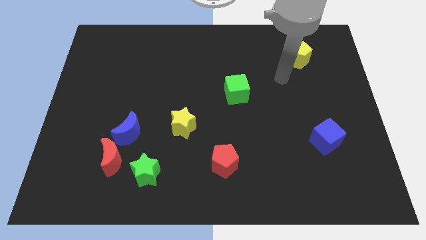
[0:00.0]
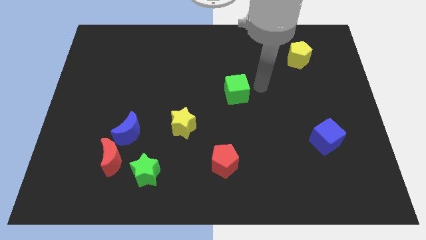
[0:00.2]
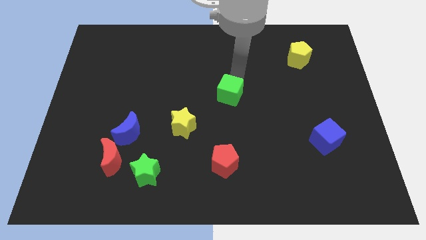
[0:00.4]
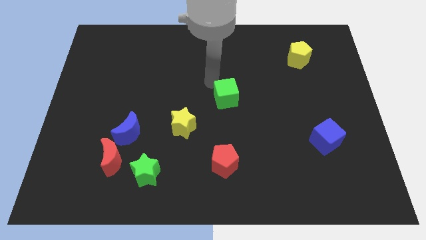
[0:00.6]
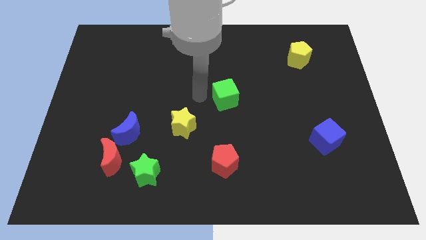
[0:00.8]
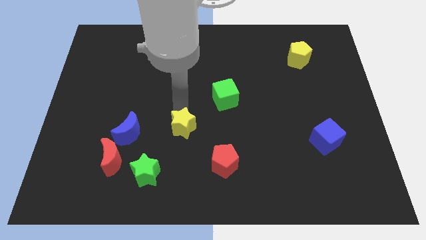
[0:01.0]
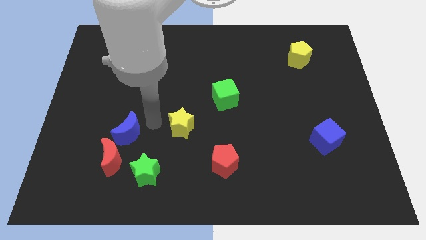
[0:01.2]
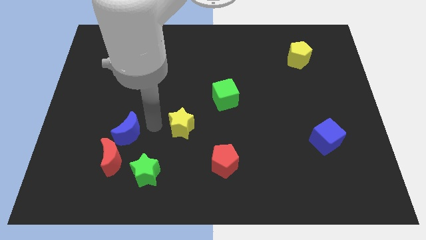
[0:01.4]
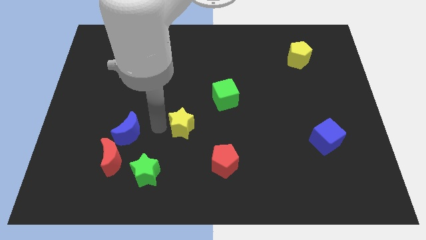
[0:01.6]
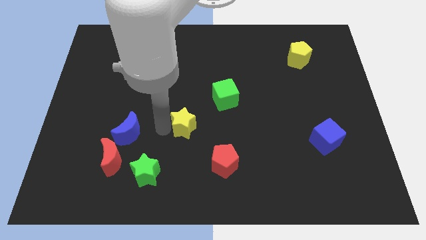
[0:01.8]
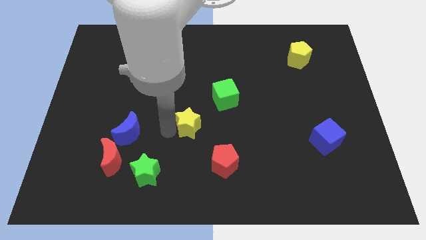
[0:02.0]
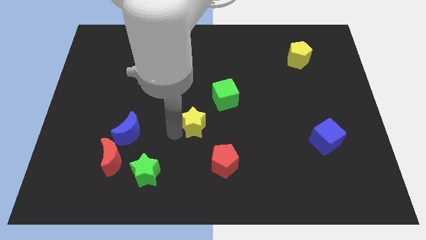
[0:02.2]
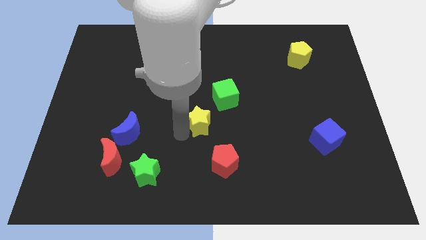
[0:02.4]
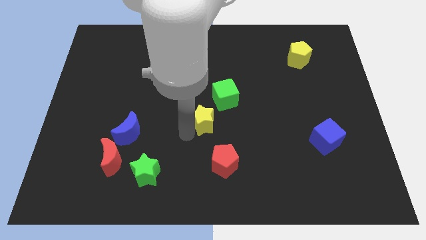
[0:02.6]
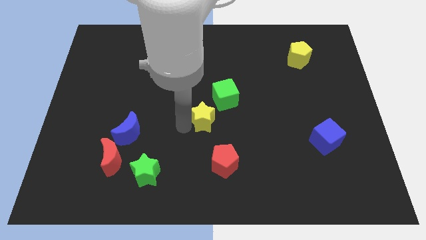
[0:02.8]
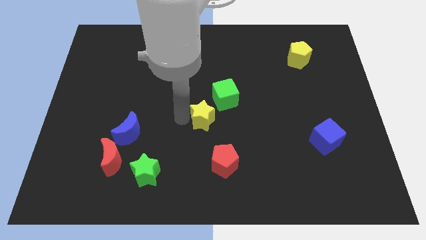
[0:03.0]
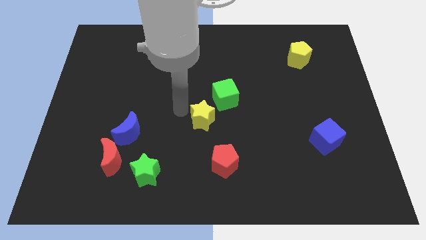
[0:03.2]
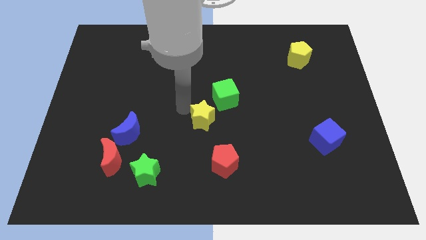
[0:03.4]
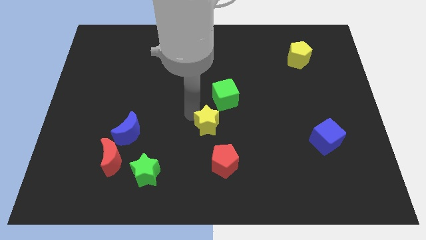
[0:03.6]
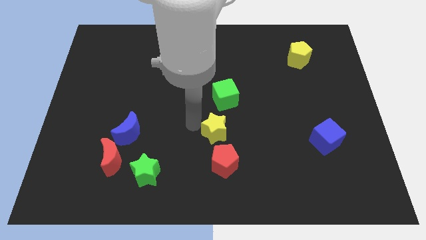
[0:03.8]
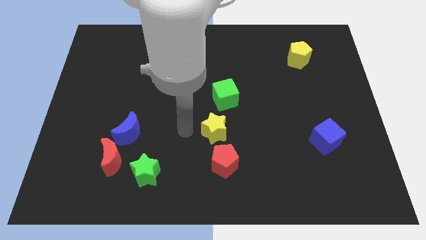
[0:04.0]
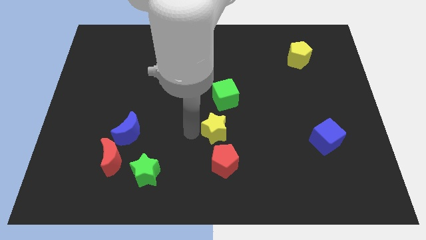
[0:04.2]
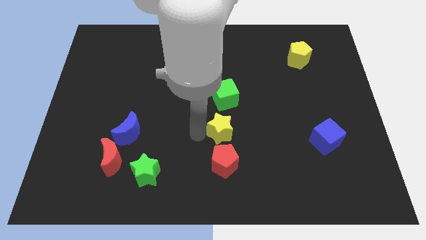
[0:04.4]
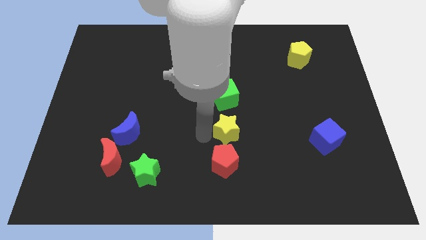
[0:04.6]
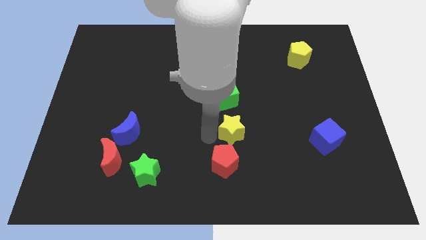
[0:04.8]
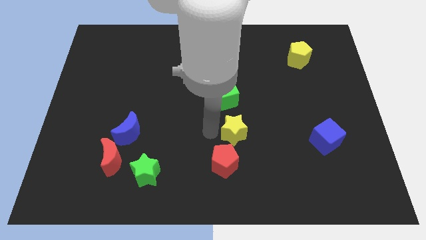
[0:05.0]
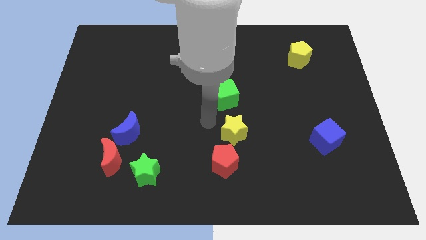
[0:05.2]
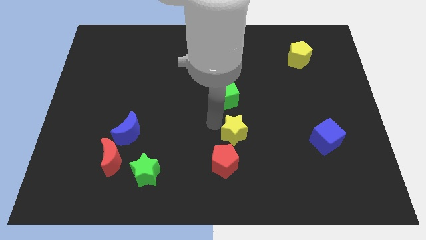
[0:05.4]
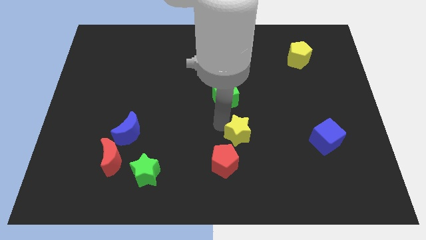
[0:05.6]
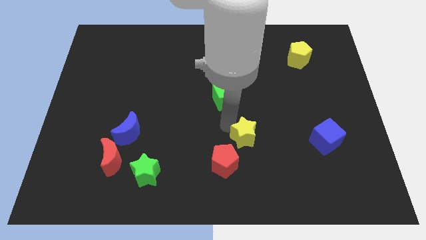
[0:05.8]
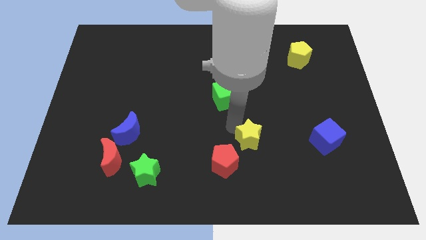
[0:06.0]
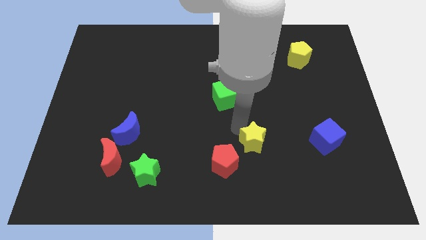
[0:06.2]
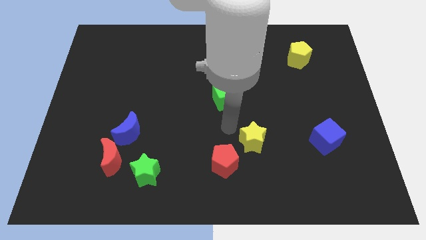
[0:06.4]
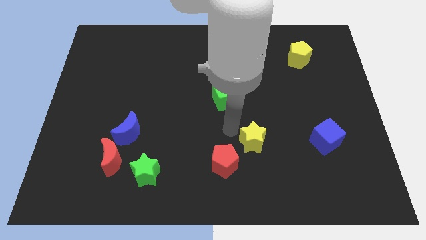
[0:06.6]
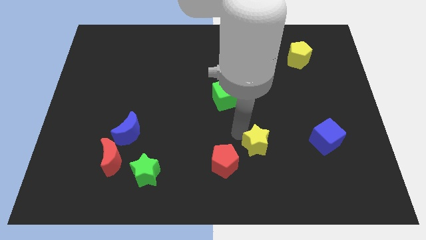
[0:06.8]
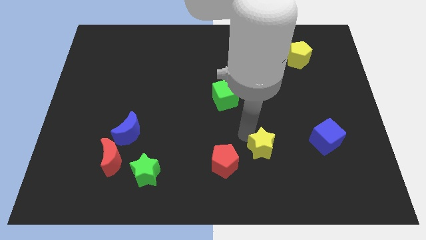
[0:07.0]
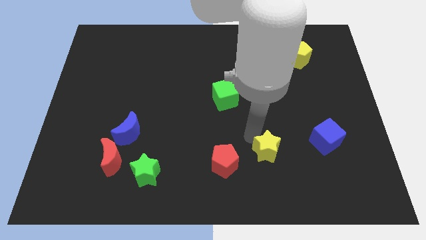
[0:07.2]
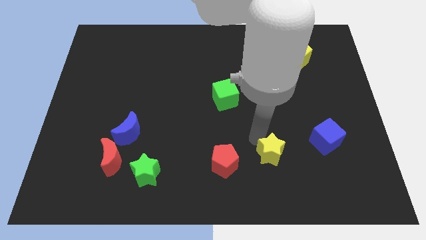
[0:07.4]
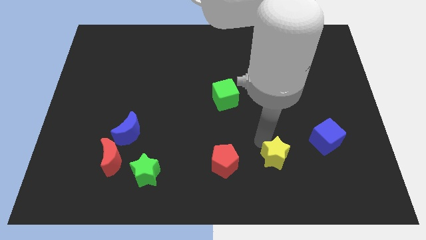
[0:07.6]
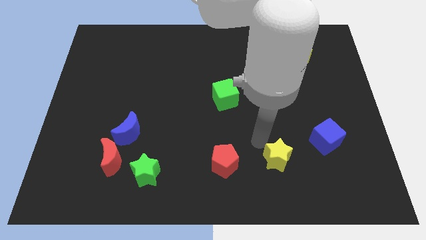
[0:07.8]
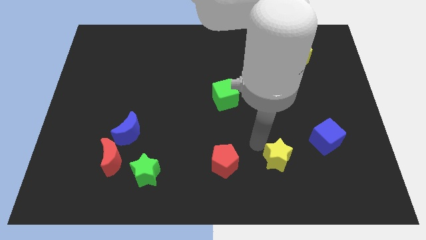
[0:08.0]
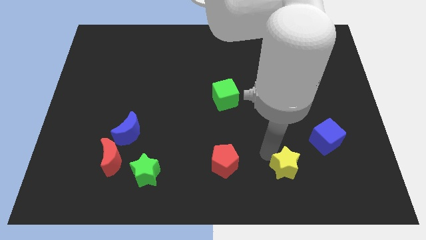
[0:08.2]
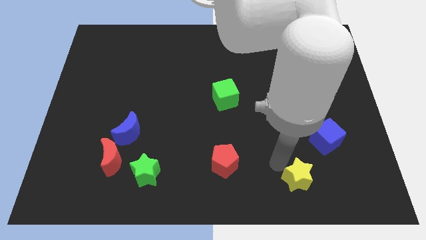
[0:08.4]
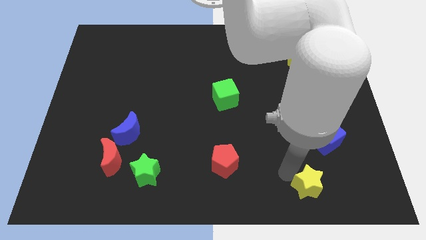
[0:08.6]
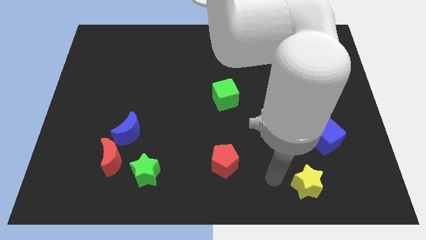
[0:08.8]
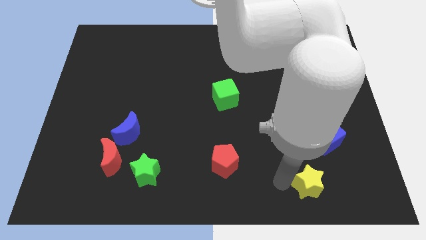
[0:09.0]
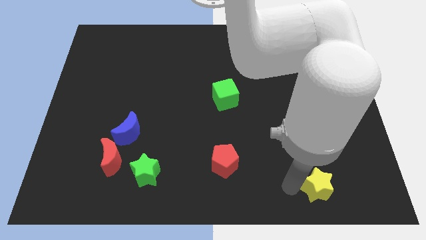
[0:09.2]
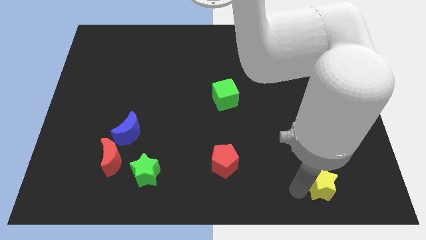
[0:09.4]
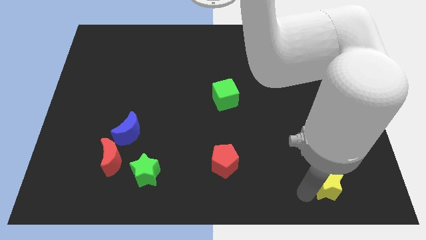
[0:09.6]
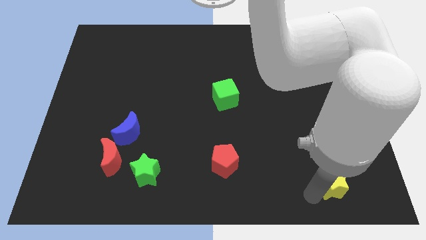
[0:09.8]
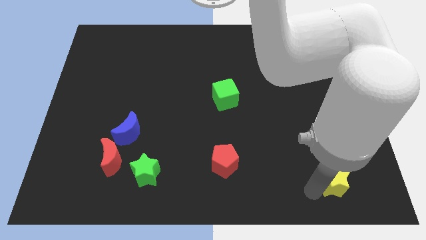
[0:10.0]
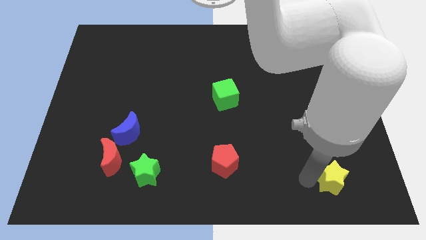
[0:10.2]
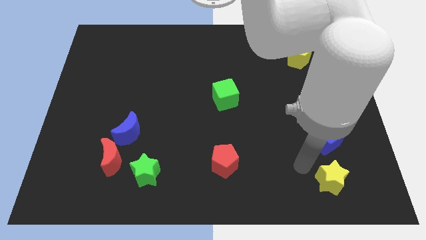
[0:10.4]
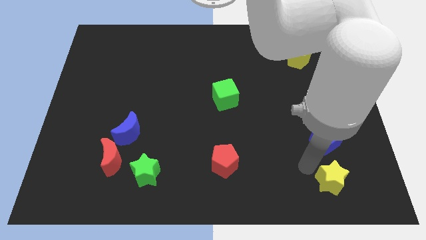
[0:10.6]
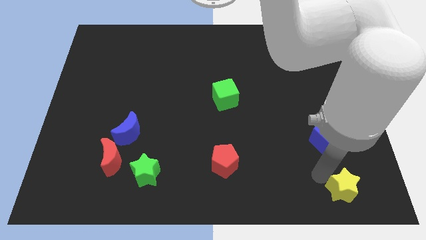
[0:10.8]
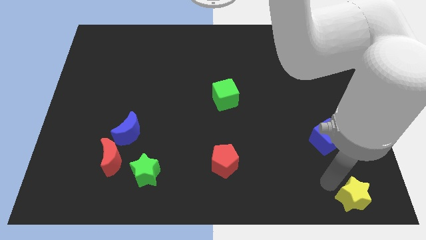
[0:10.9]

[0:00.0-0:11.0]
put the yellow star to the bottom right

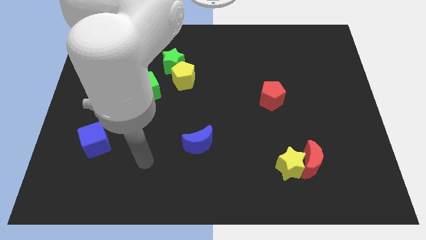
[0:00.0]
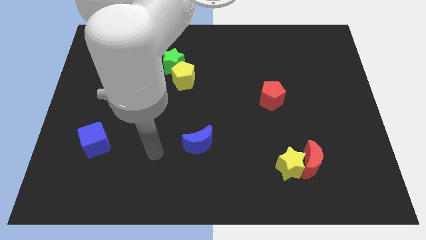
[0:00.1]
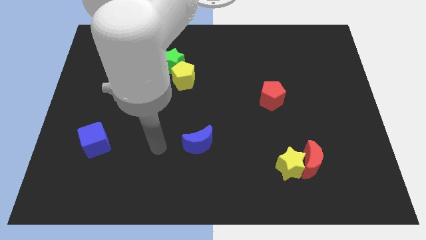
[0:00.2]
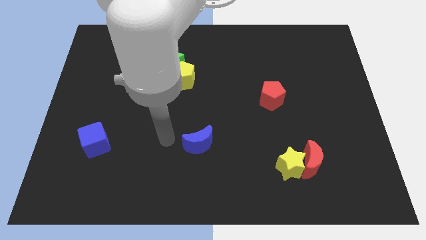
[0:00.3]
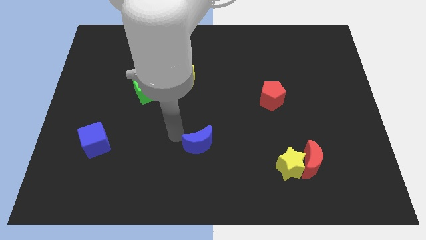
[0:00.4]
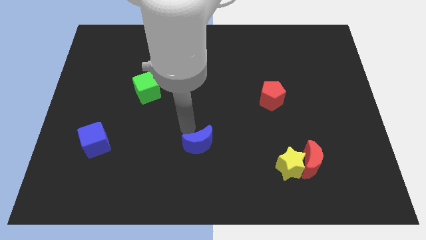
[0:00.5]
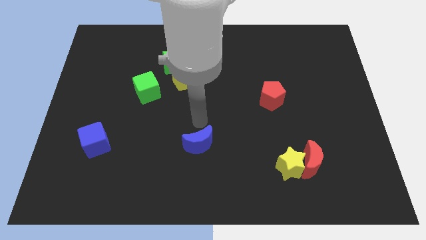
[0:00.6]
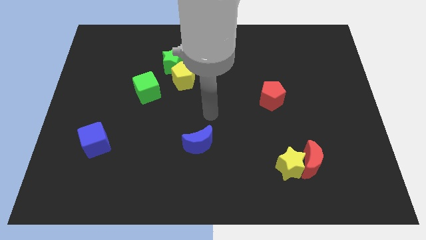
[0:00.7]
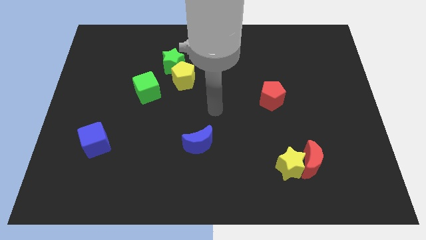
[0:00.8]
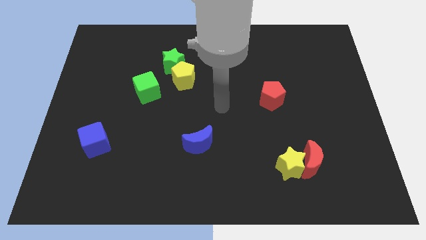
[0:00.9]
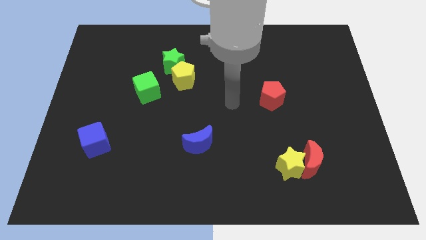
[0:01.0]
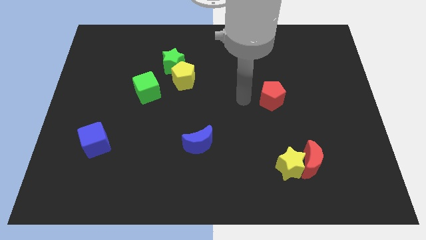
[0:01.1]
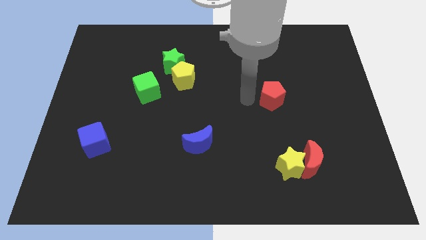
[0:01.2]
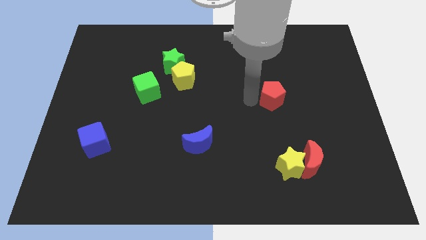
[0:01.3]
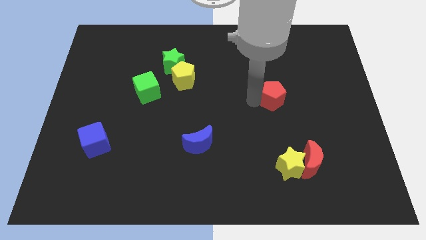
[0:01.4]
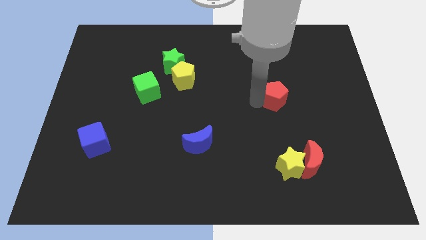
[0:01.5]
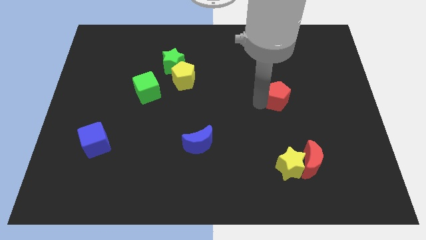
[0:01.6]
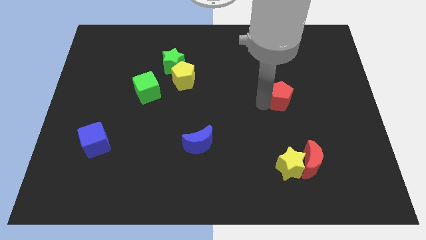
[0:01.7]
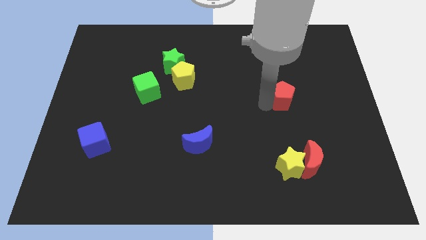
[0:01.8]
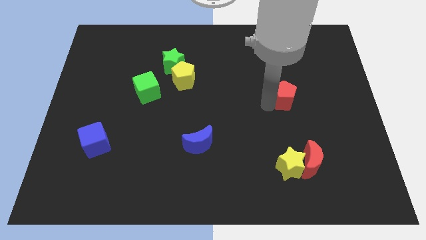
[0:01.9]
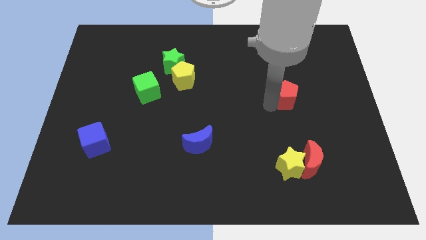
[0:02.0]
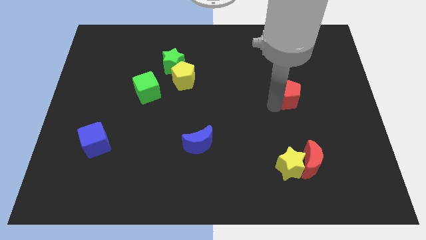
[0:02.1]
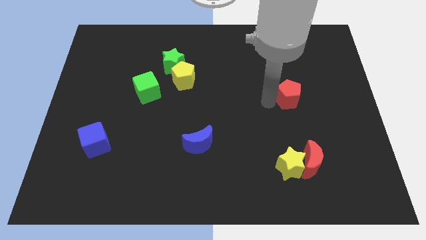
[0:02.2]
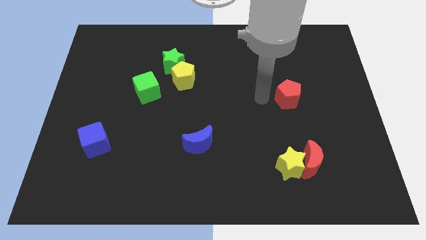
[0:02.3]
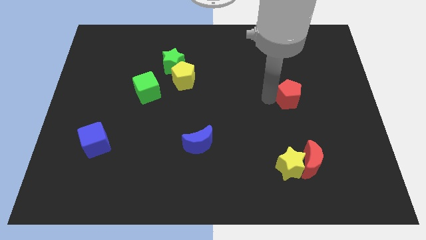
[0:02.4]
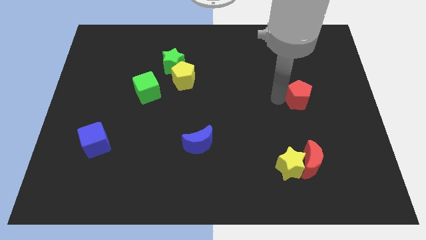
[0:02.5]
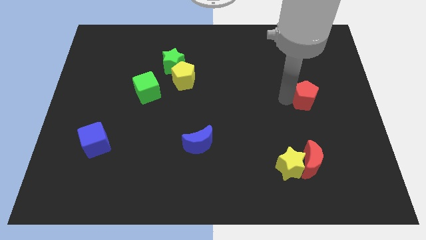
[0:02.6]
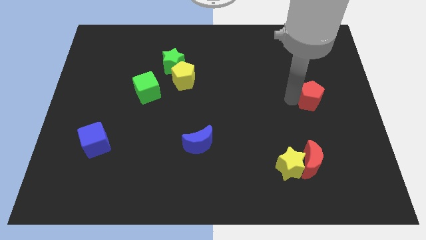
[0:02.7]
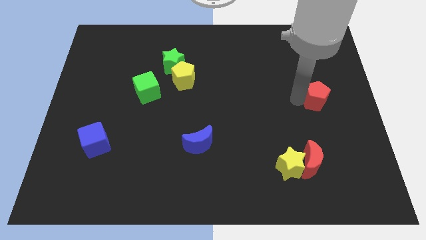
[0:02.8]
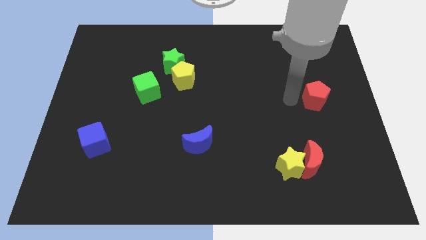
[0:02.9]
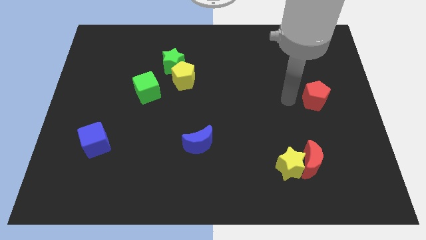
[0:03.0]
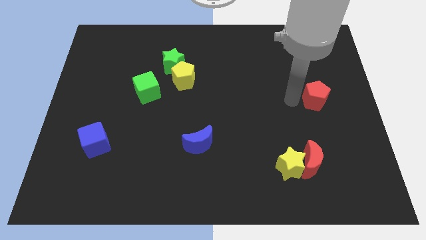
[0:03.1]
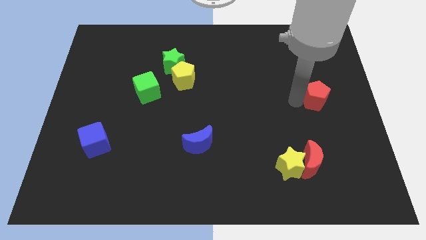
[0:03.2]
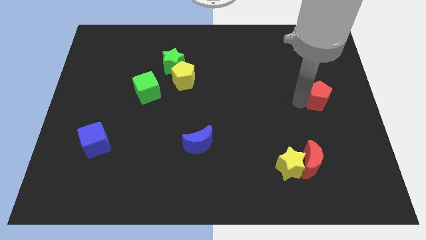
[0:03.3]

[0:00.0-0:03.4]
move the red pentagon to the center right
